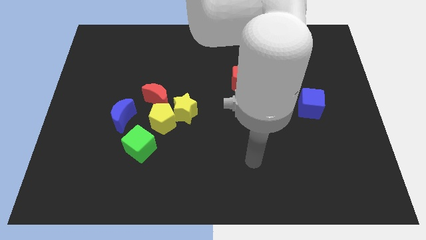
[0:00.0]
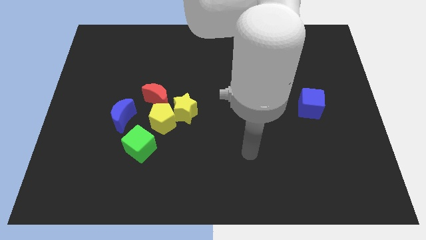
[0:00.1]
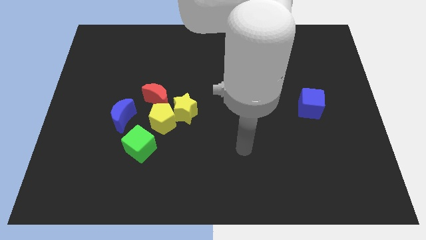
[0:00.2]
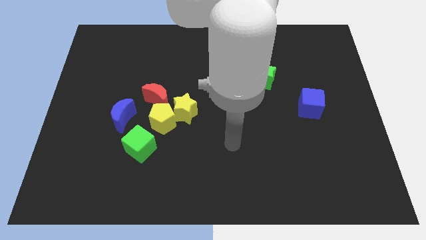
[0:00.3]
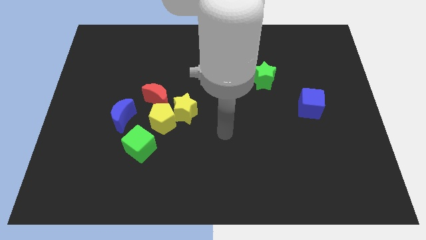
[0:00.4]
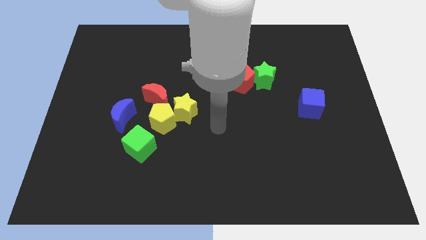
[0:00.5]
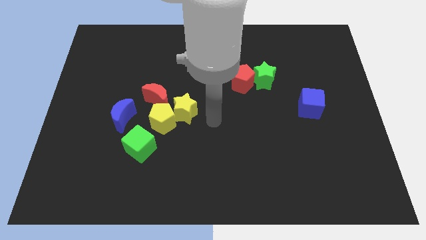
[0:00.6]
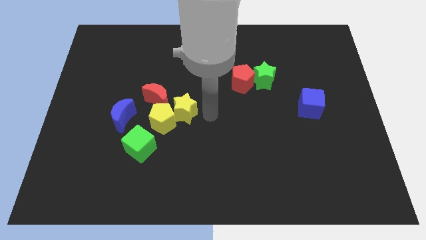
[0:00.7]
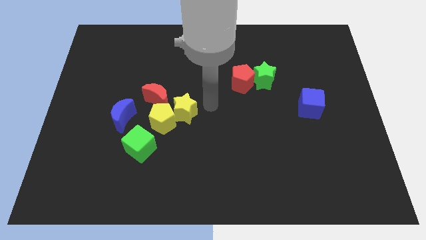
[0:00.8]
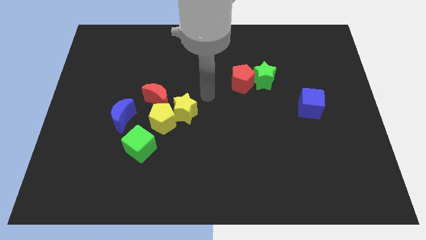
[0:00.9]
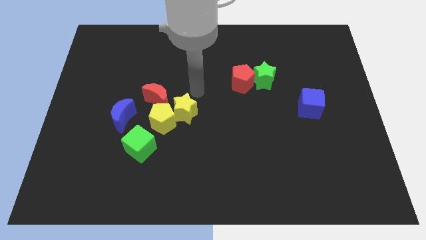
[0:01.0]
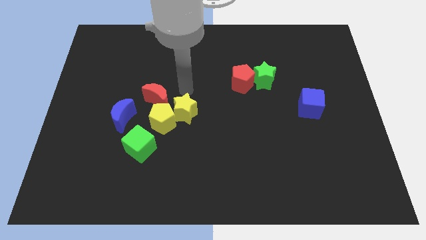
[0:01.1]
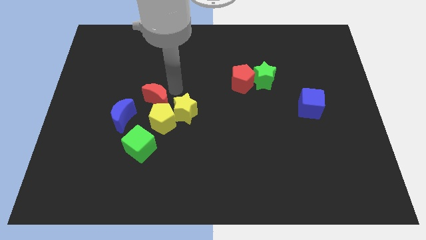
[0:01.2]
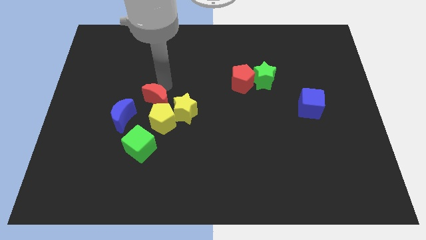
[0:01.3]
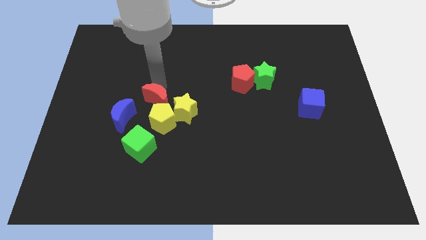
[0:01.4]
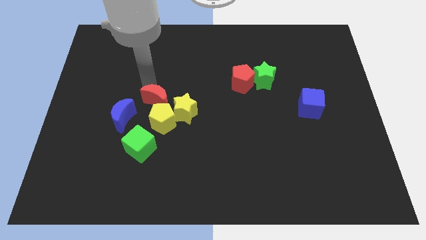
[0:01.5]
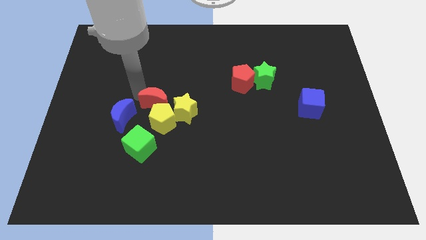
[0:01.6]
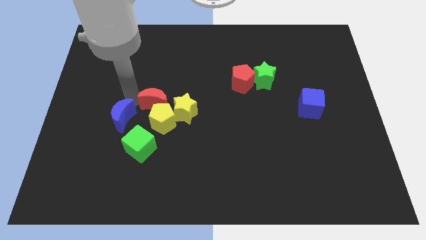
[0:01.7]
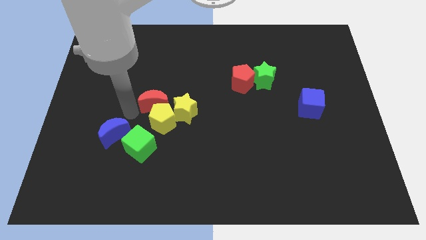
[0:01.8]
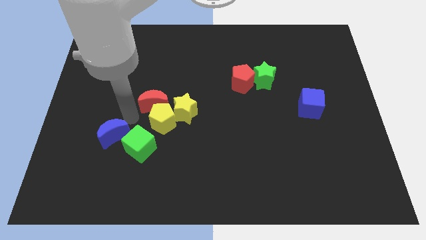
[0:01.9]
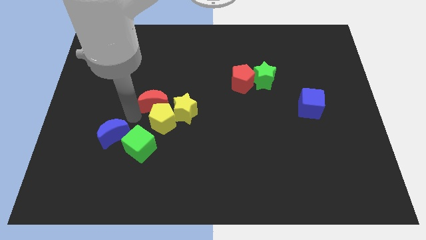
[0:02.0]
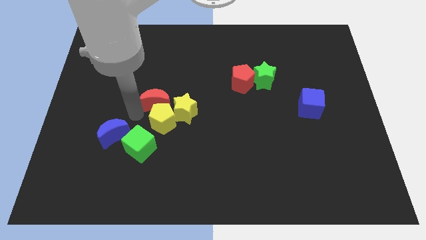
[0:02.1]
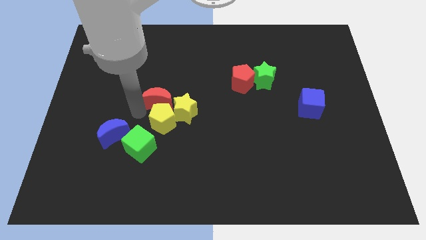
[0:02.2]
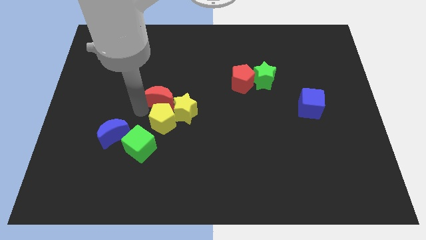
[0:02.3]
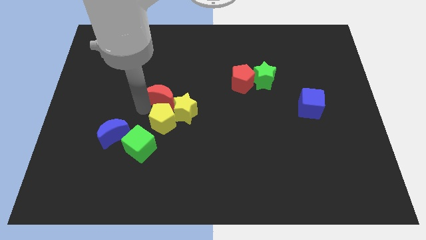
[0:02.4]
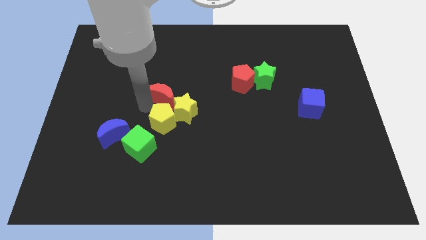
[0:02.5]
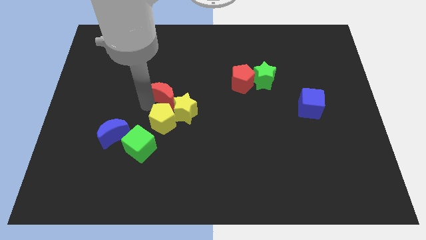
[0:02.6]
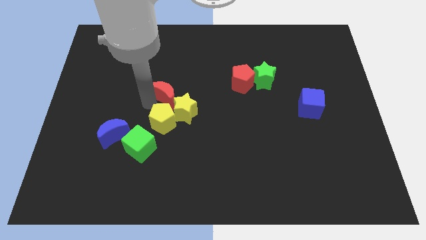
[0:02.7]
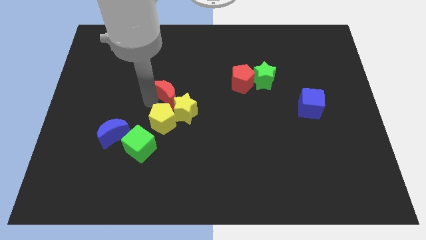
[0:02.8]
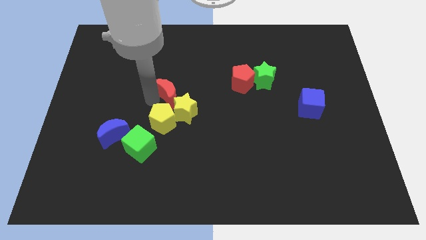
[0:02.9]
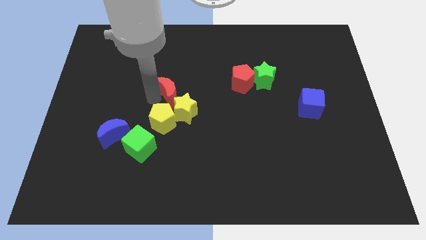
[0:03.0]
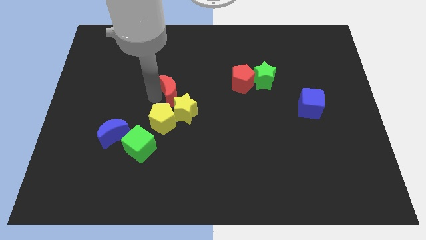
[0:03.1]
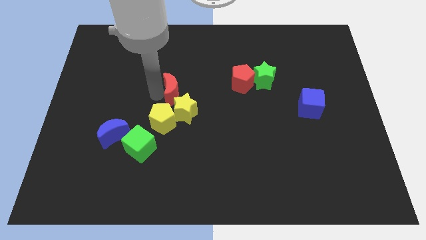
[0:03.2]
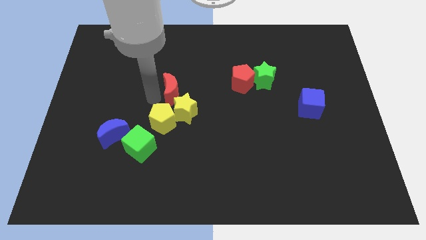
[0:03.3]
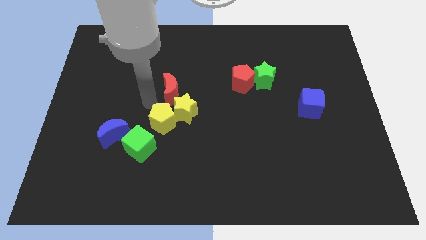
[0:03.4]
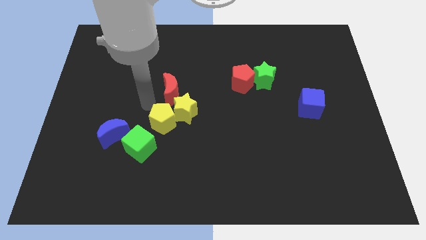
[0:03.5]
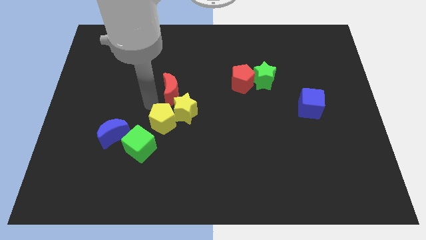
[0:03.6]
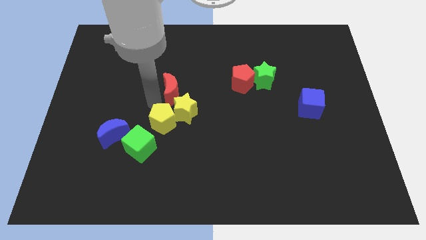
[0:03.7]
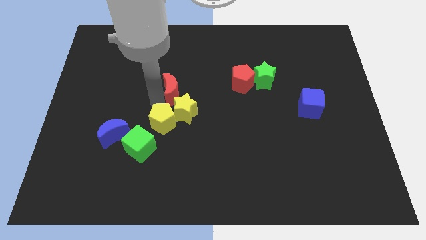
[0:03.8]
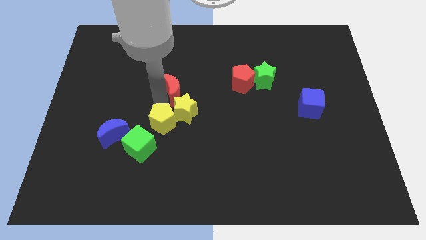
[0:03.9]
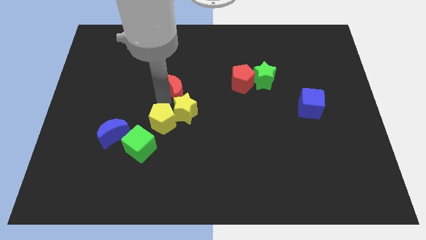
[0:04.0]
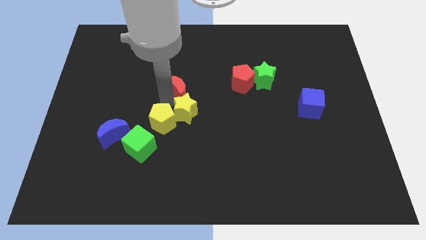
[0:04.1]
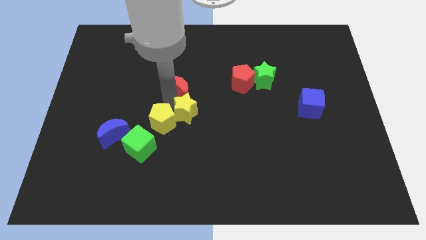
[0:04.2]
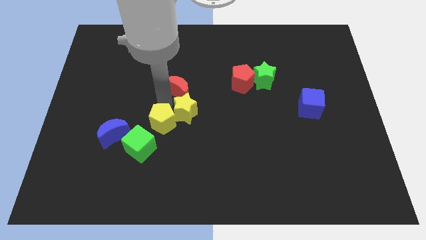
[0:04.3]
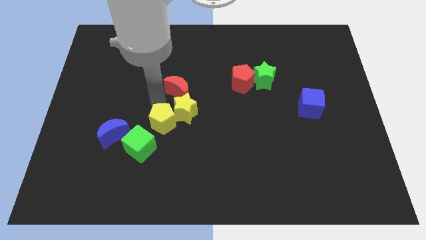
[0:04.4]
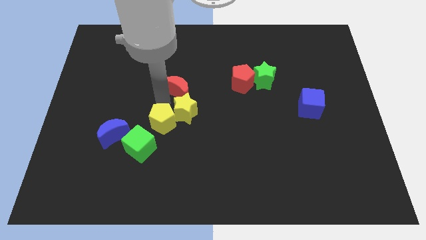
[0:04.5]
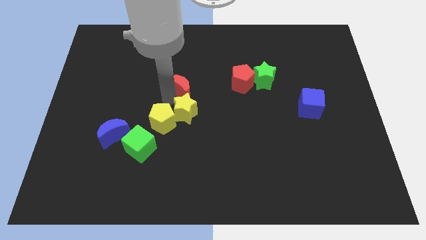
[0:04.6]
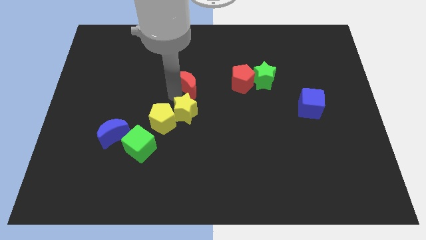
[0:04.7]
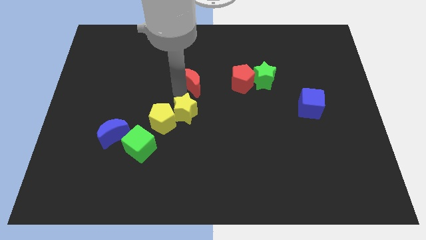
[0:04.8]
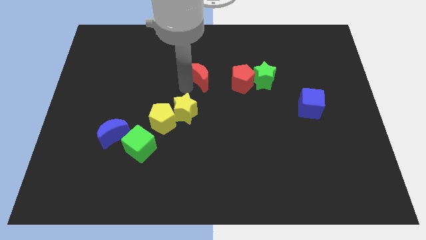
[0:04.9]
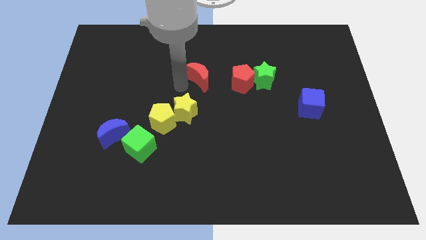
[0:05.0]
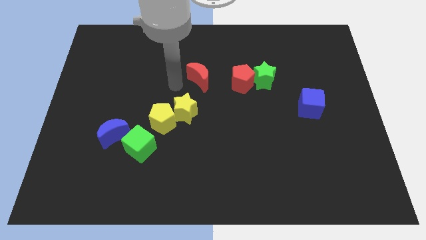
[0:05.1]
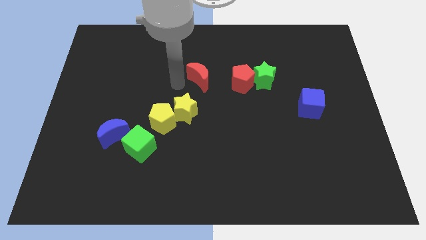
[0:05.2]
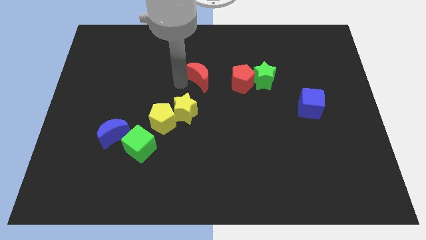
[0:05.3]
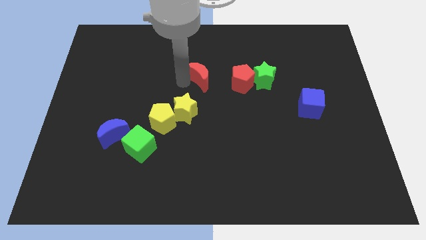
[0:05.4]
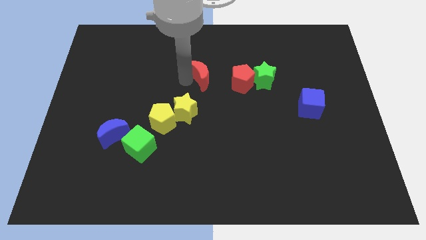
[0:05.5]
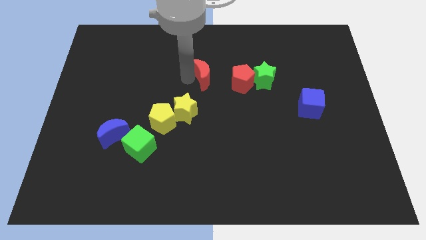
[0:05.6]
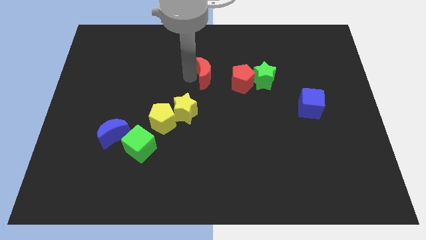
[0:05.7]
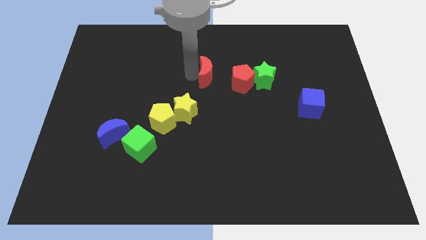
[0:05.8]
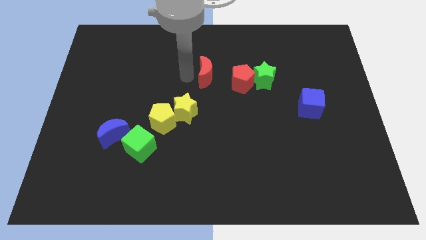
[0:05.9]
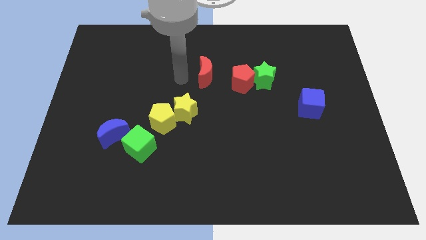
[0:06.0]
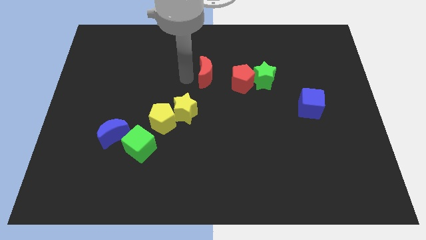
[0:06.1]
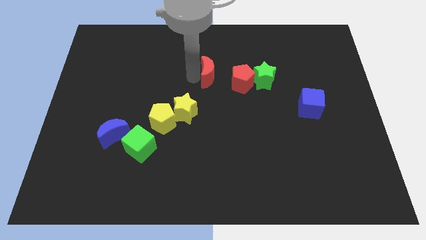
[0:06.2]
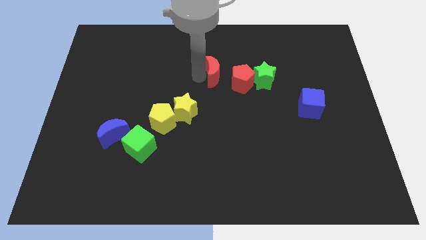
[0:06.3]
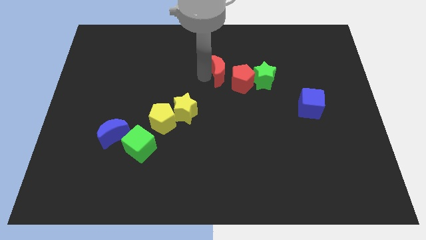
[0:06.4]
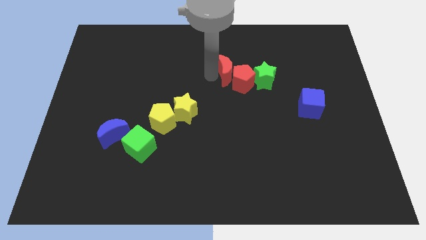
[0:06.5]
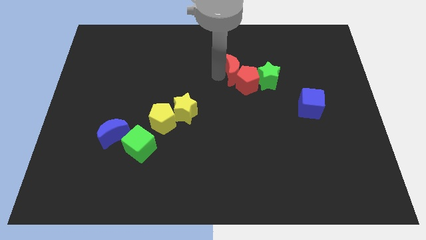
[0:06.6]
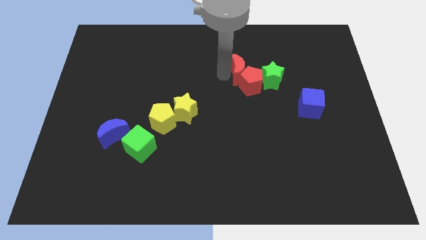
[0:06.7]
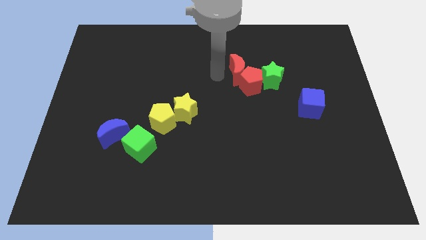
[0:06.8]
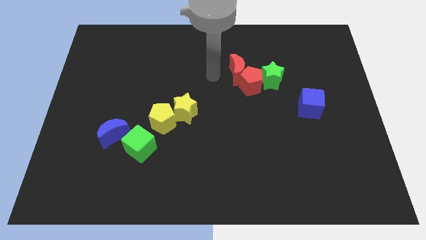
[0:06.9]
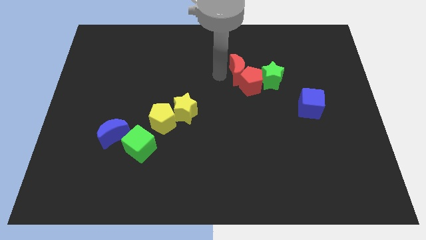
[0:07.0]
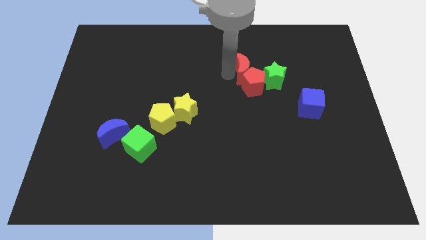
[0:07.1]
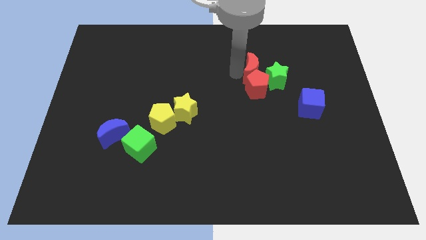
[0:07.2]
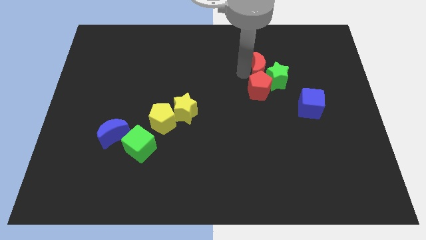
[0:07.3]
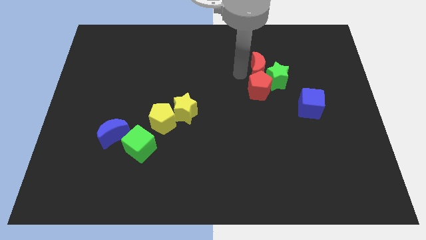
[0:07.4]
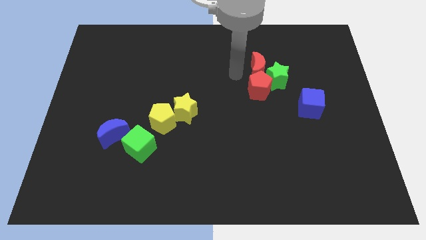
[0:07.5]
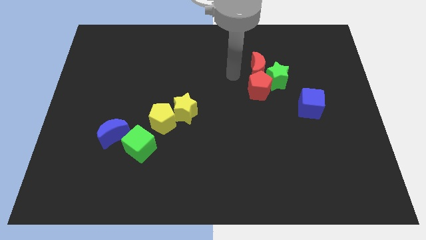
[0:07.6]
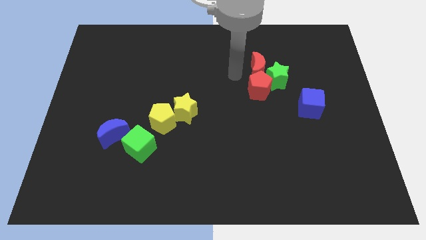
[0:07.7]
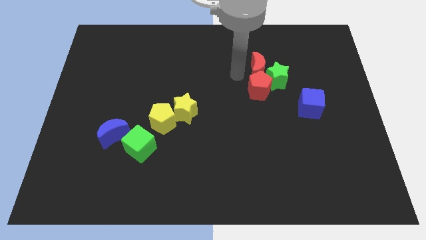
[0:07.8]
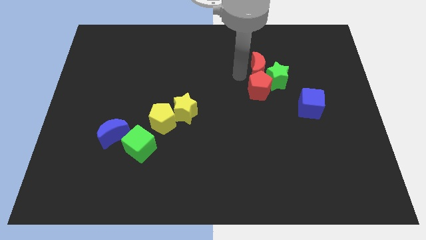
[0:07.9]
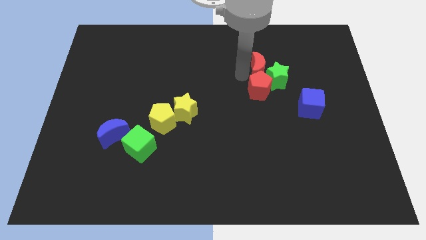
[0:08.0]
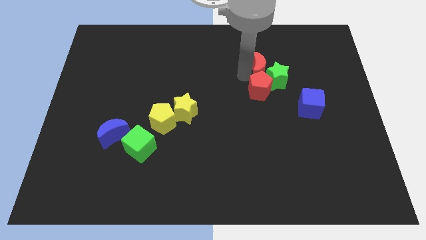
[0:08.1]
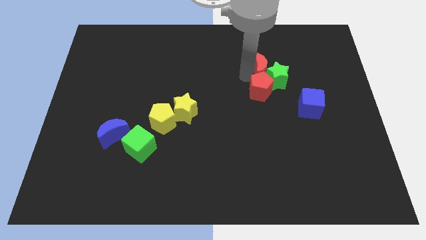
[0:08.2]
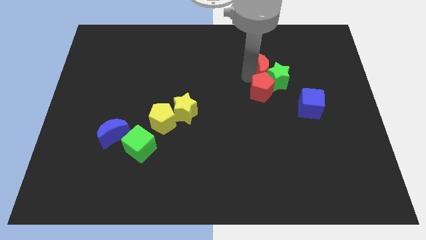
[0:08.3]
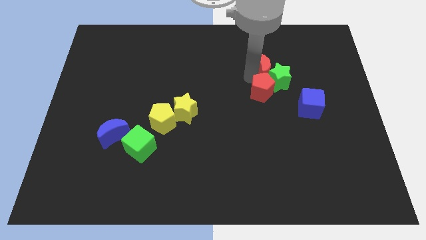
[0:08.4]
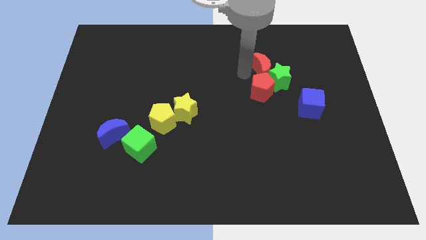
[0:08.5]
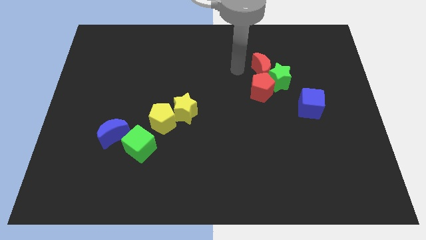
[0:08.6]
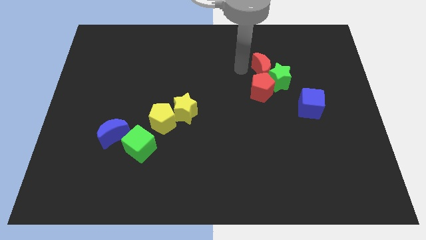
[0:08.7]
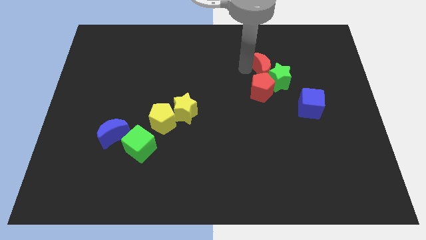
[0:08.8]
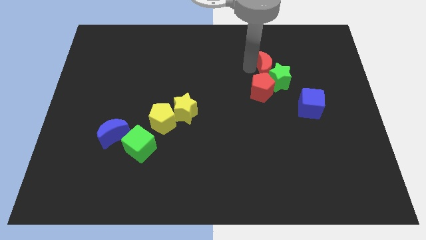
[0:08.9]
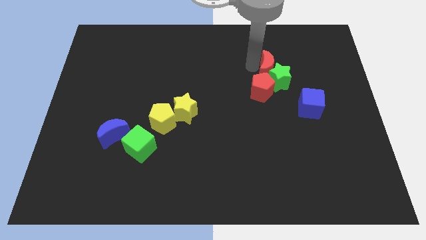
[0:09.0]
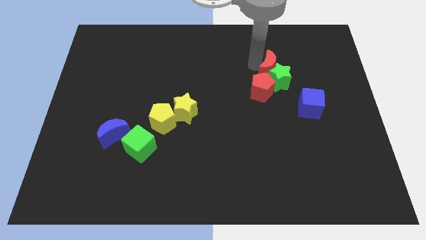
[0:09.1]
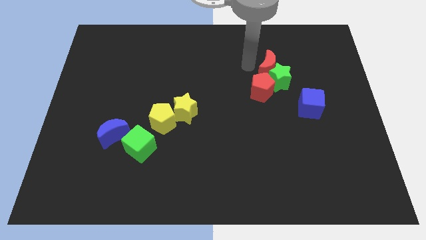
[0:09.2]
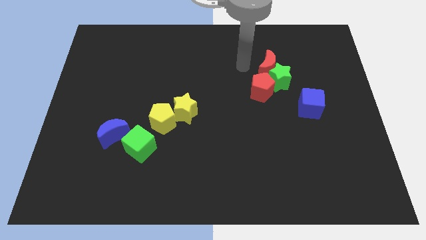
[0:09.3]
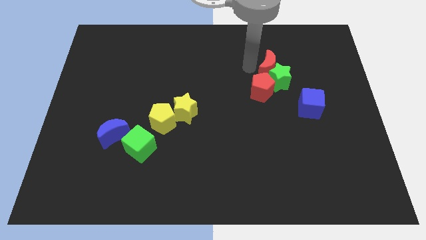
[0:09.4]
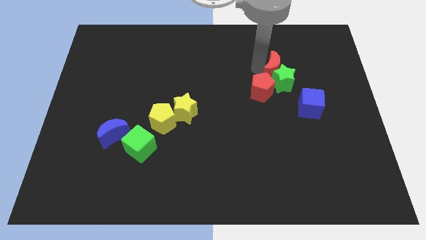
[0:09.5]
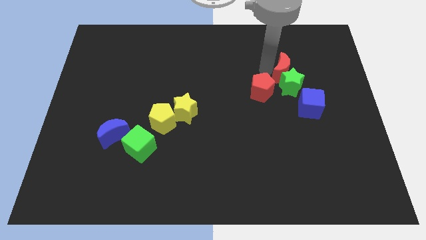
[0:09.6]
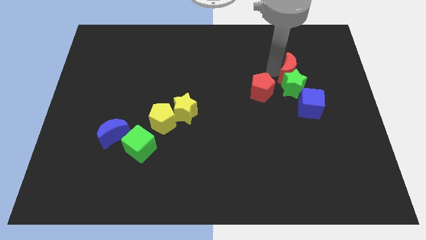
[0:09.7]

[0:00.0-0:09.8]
put the red moon to the top of the blue cube
